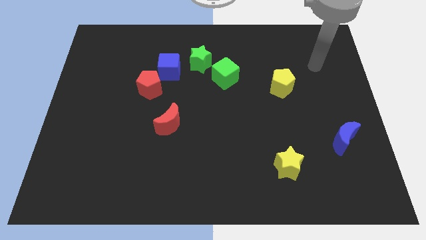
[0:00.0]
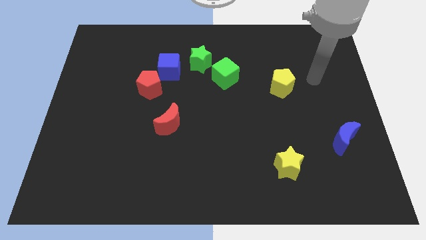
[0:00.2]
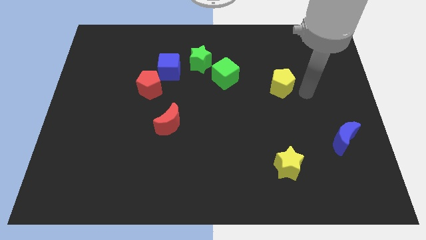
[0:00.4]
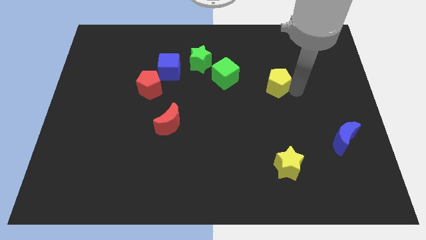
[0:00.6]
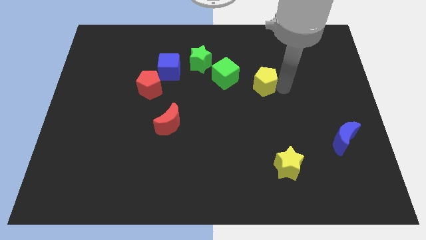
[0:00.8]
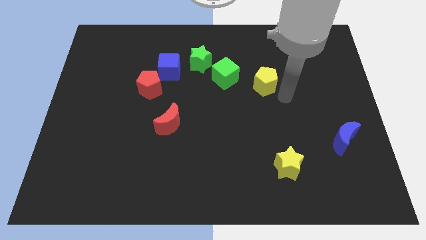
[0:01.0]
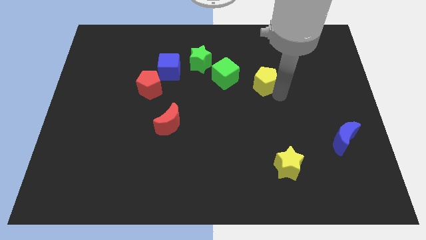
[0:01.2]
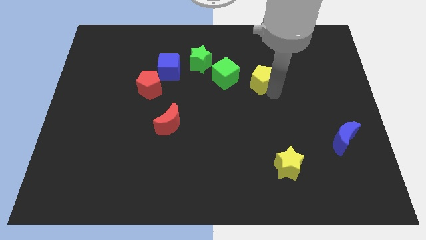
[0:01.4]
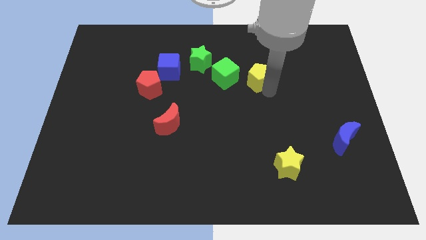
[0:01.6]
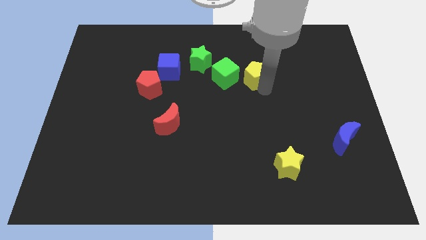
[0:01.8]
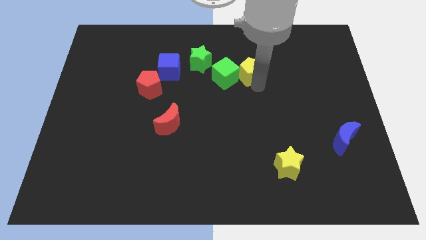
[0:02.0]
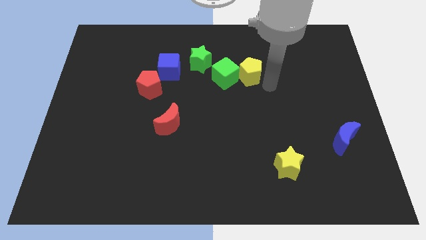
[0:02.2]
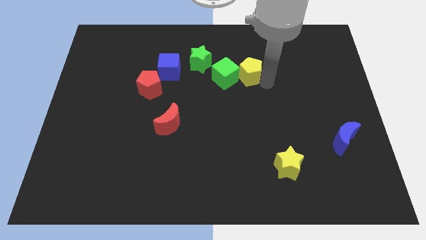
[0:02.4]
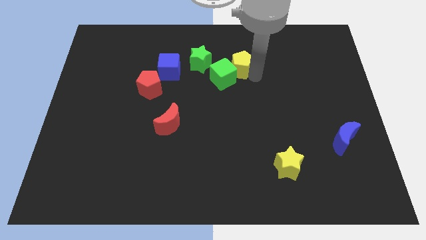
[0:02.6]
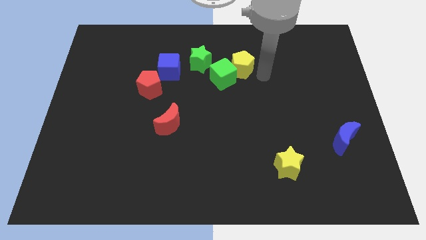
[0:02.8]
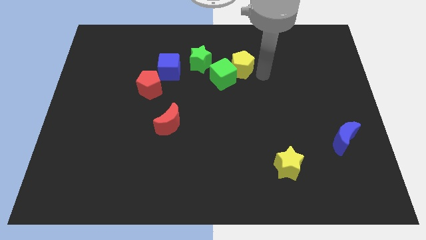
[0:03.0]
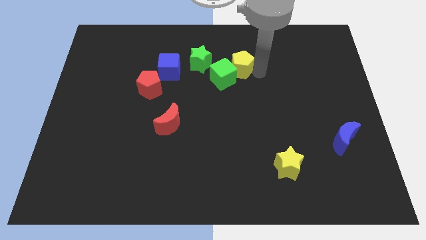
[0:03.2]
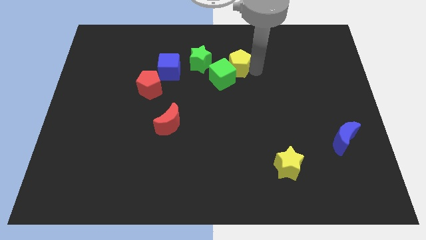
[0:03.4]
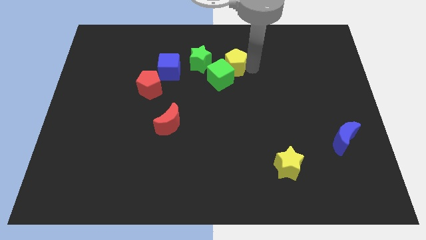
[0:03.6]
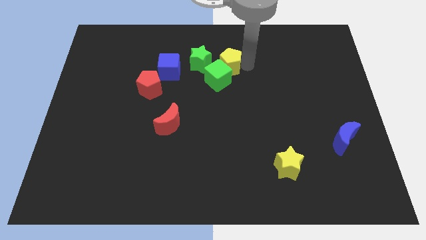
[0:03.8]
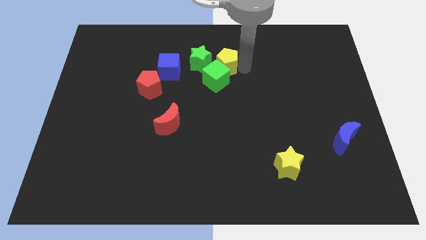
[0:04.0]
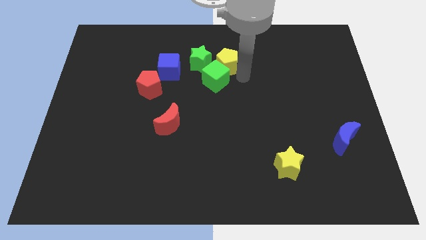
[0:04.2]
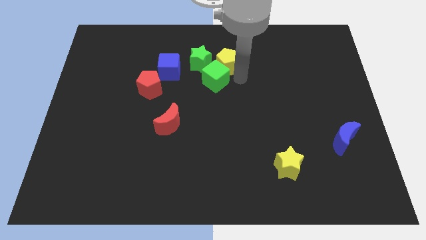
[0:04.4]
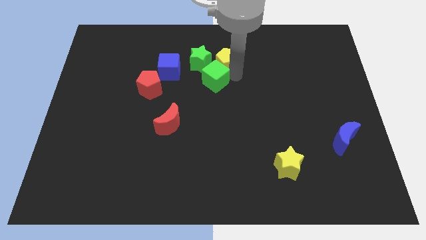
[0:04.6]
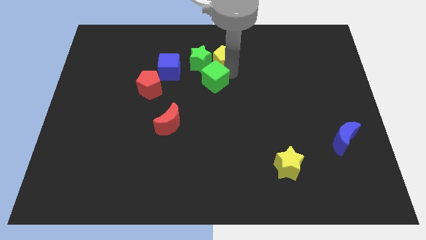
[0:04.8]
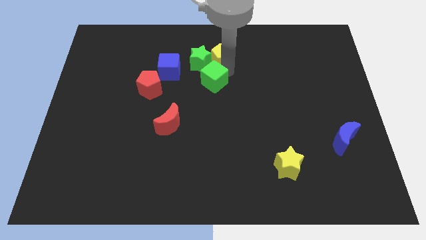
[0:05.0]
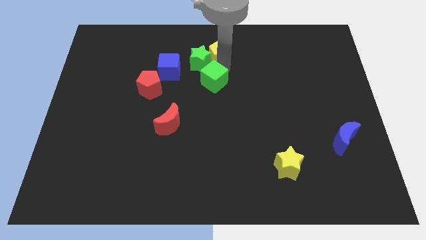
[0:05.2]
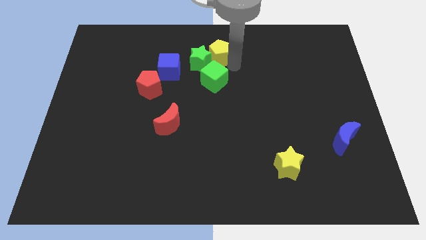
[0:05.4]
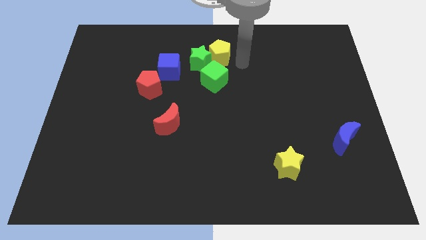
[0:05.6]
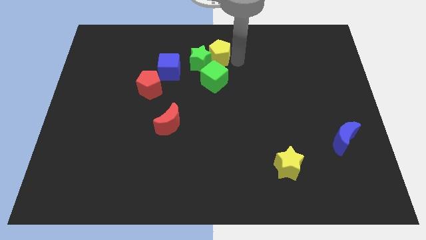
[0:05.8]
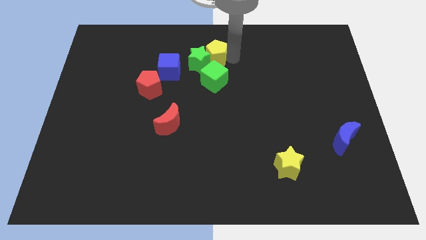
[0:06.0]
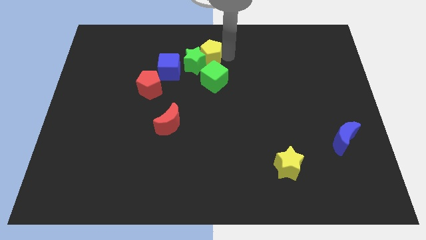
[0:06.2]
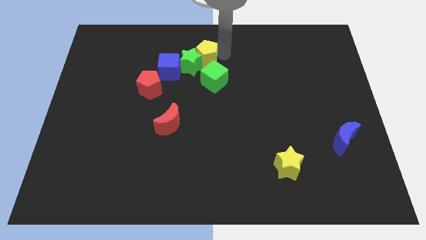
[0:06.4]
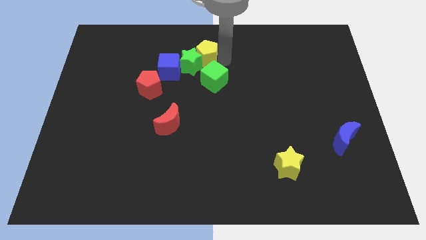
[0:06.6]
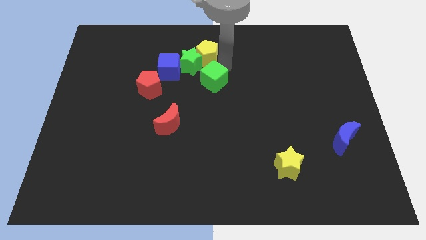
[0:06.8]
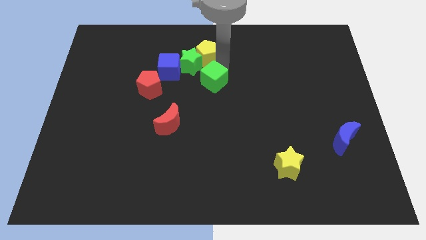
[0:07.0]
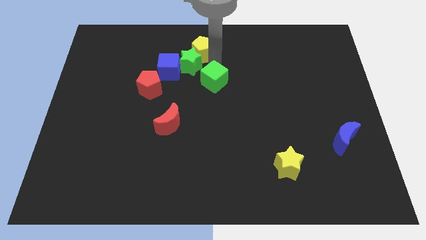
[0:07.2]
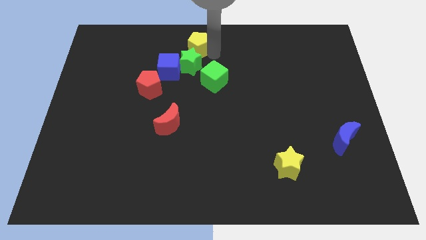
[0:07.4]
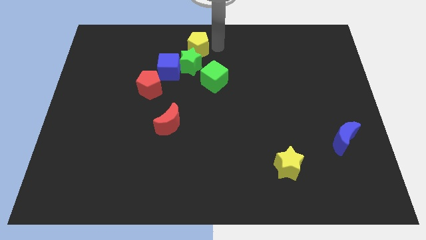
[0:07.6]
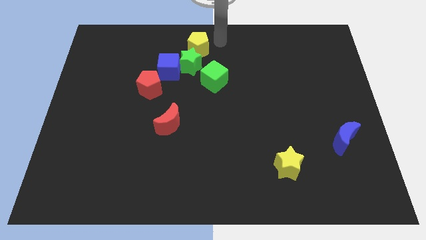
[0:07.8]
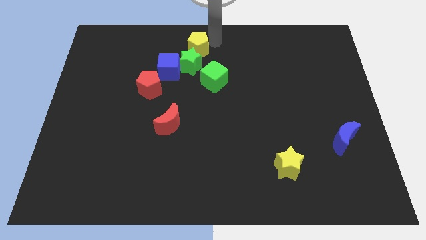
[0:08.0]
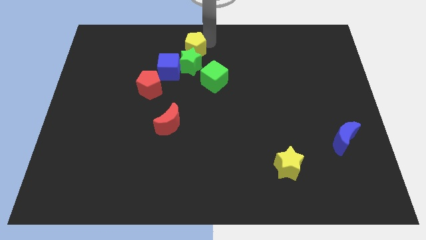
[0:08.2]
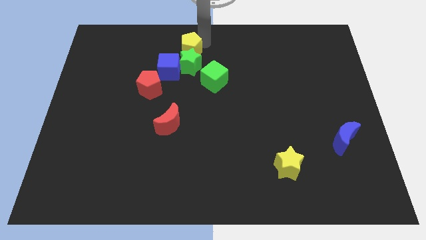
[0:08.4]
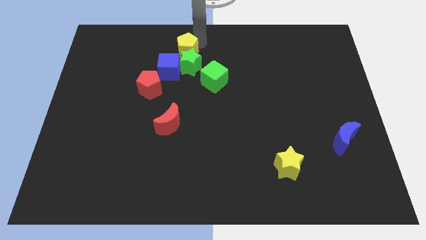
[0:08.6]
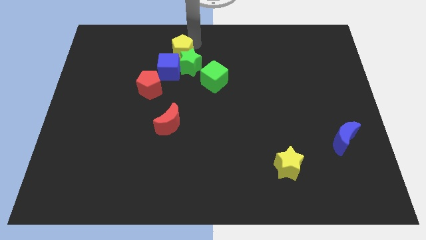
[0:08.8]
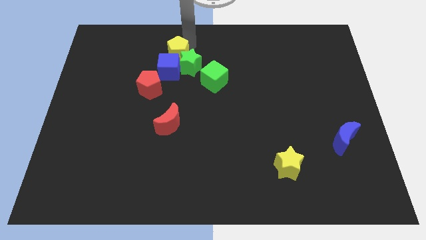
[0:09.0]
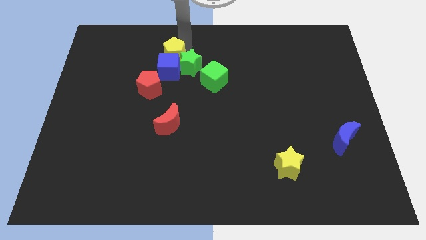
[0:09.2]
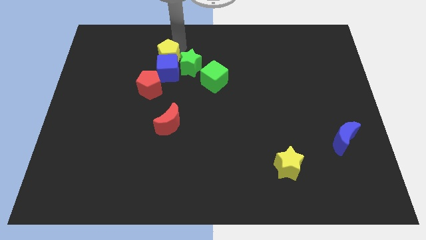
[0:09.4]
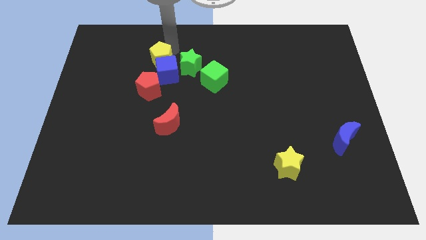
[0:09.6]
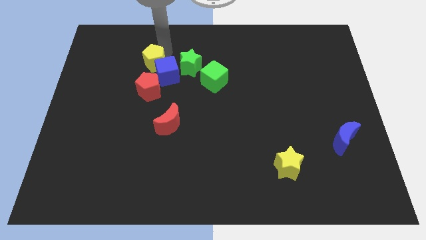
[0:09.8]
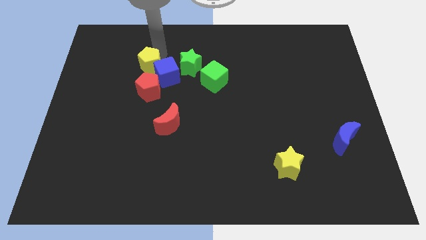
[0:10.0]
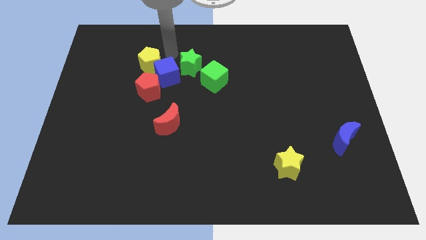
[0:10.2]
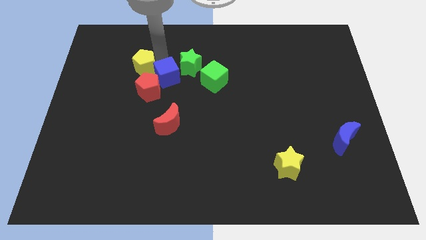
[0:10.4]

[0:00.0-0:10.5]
slide the yellow pentagon to the top left side of the red pentagon
